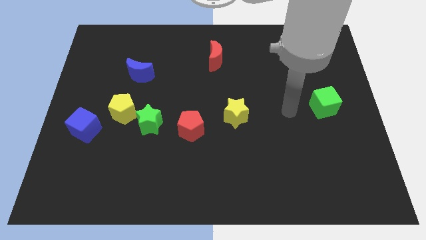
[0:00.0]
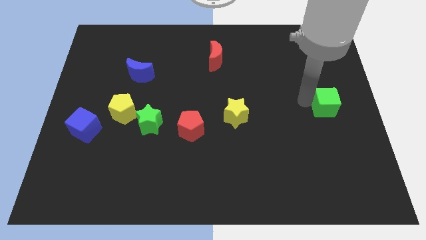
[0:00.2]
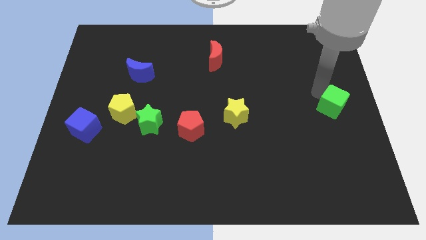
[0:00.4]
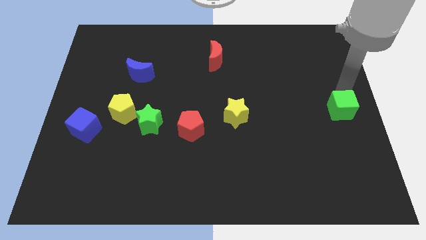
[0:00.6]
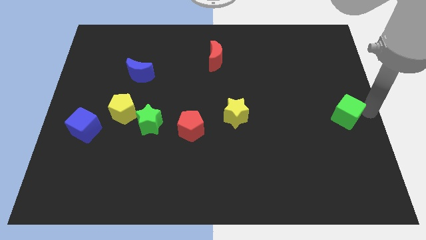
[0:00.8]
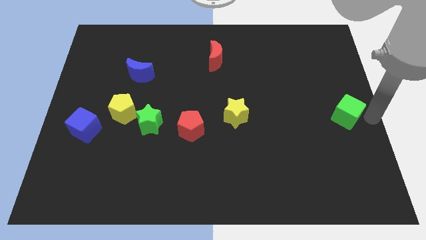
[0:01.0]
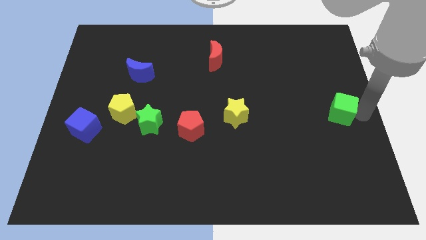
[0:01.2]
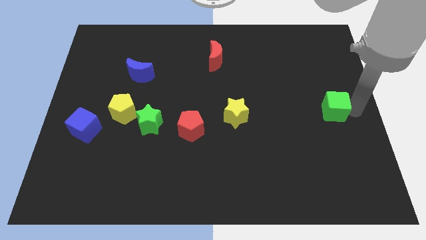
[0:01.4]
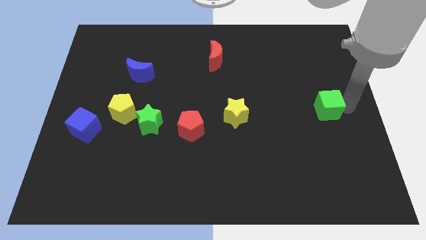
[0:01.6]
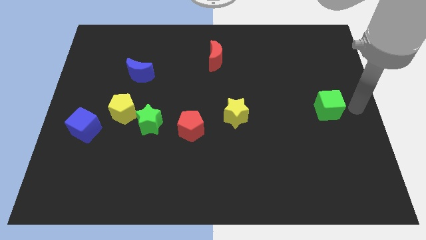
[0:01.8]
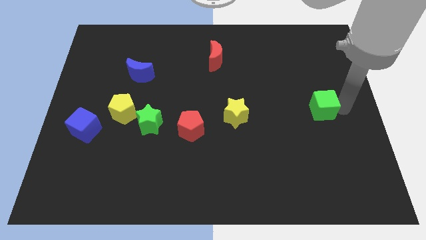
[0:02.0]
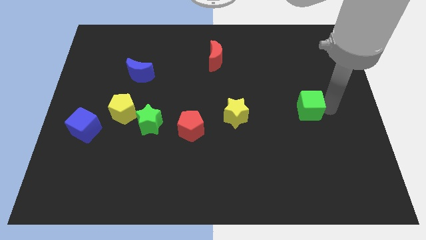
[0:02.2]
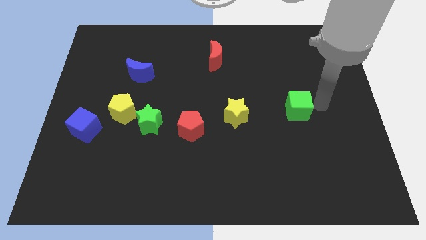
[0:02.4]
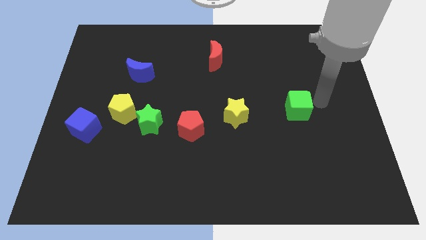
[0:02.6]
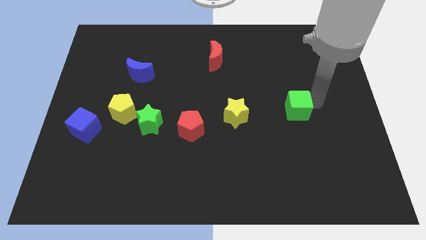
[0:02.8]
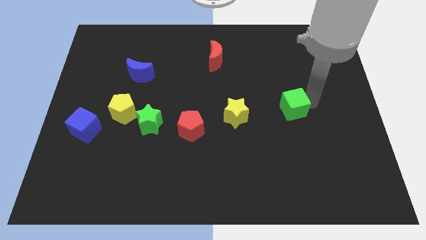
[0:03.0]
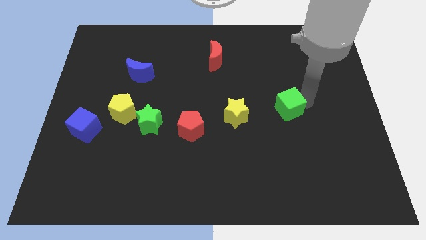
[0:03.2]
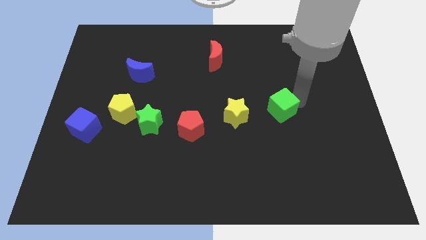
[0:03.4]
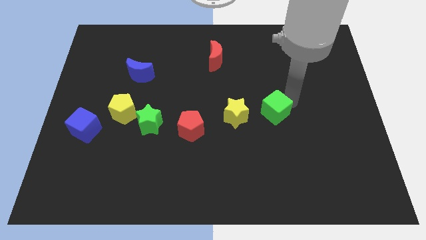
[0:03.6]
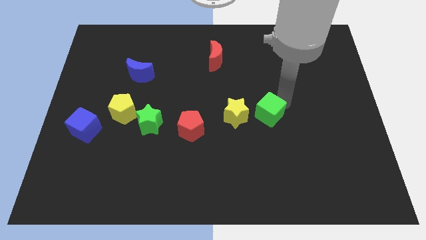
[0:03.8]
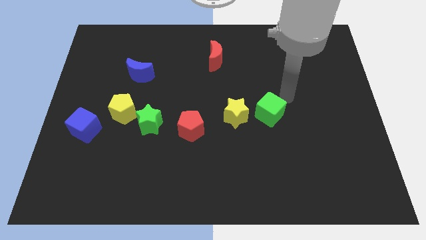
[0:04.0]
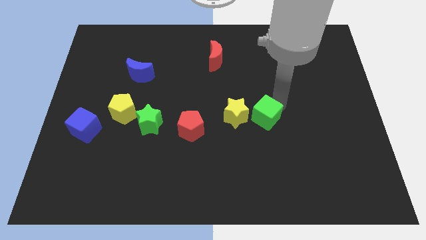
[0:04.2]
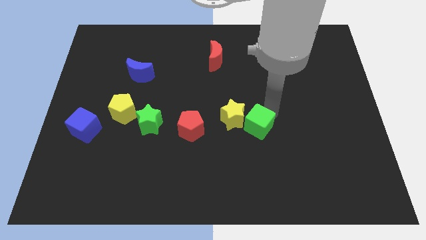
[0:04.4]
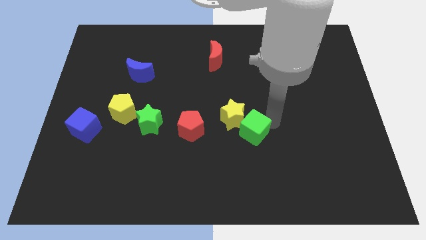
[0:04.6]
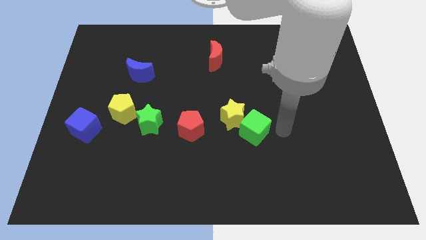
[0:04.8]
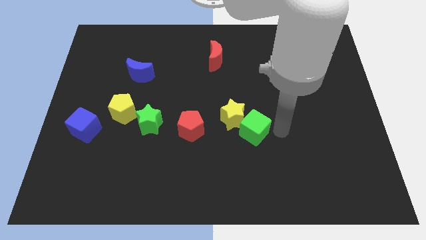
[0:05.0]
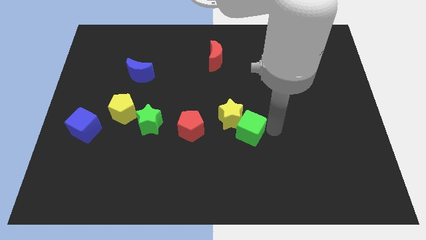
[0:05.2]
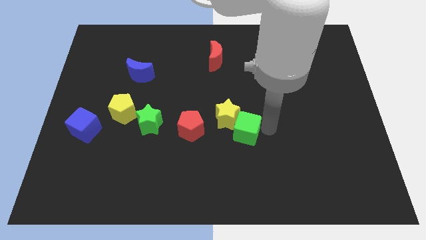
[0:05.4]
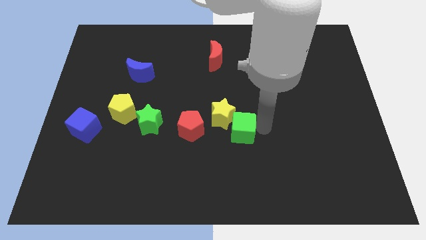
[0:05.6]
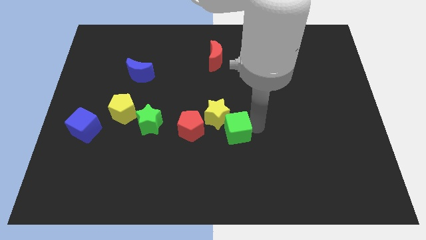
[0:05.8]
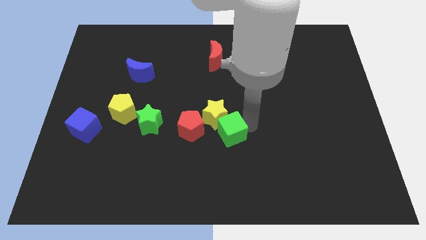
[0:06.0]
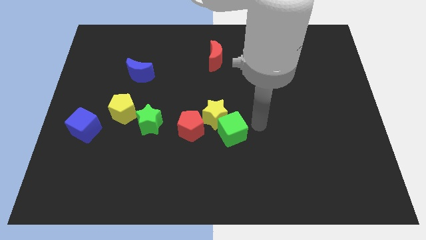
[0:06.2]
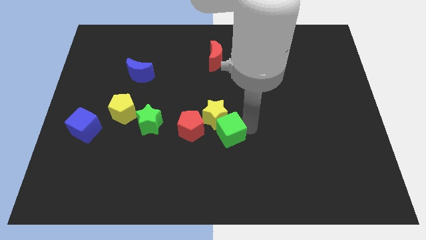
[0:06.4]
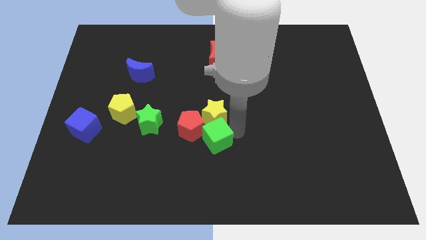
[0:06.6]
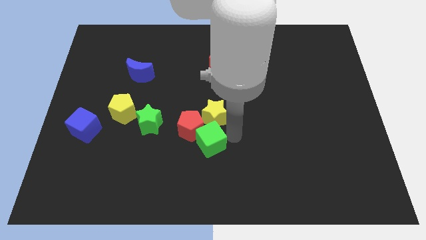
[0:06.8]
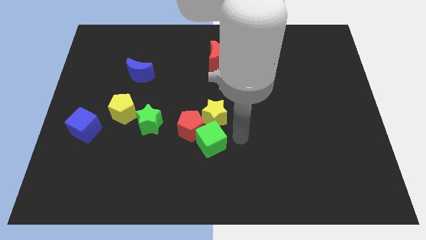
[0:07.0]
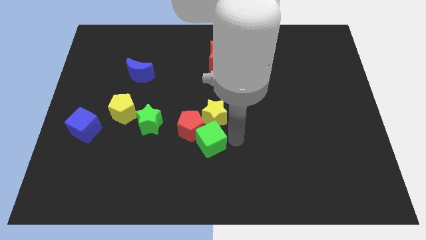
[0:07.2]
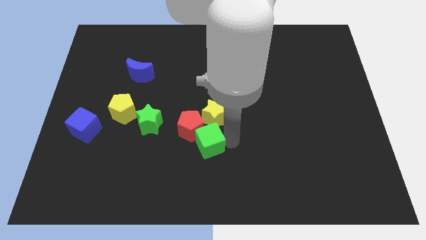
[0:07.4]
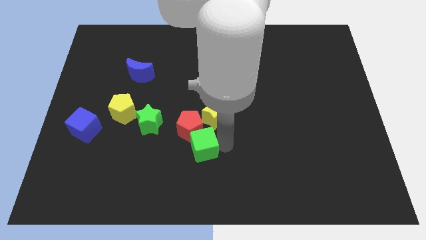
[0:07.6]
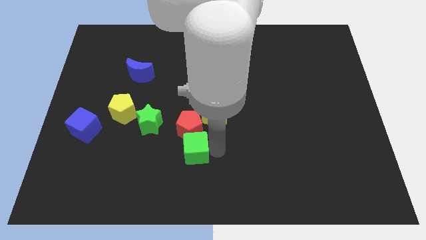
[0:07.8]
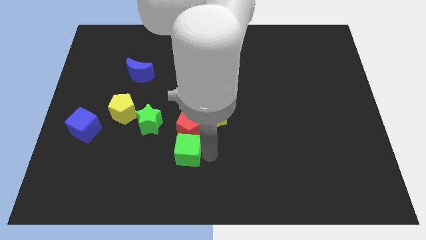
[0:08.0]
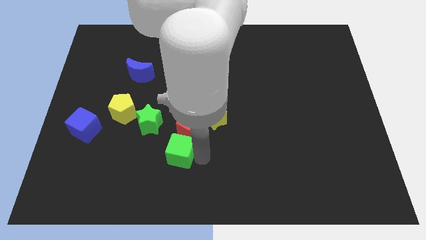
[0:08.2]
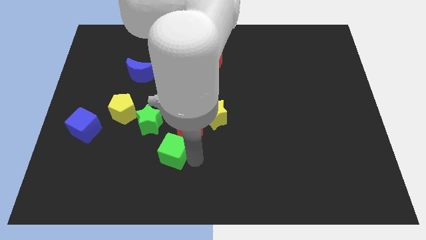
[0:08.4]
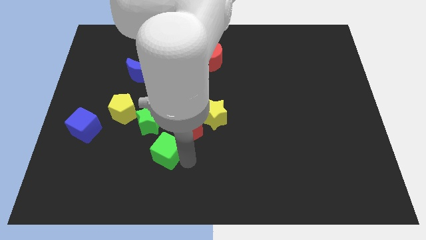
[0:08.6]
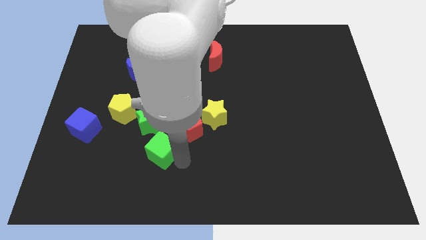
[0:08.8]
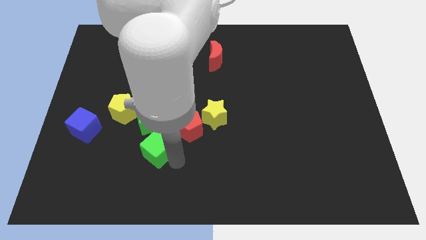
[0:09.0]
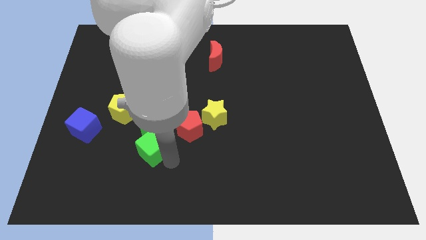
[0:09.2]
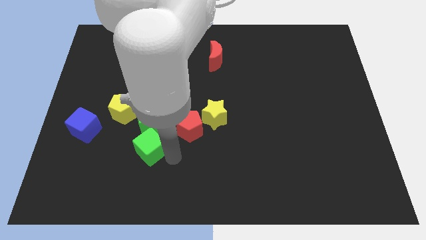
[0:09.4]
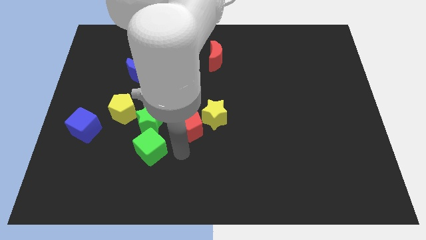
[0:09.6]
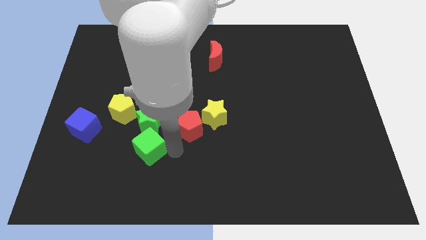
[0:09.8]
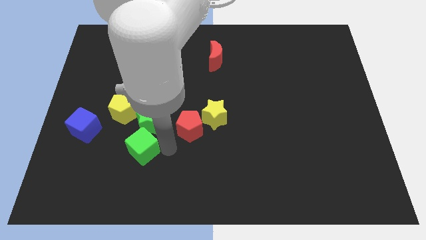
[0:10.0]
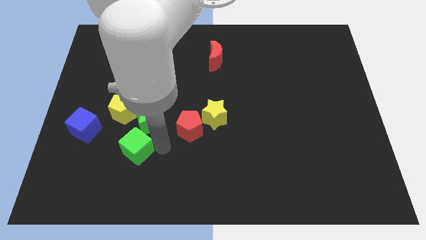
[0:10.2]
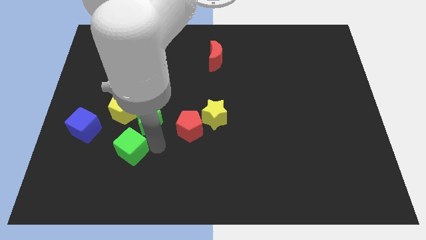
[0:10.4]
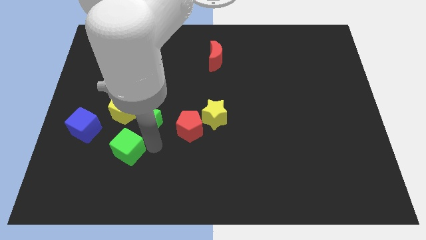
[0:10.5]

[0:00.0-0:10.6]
put the green cube to the bottom right side of the blue cube

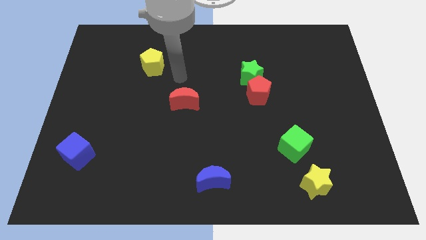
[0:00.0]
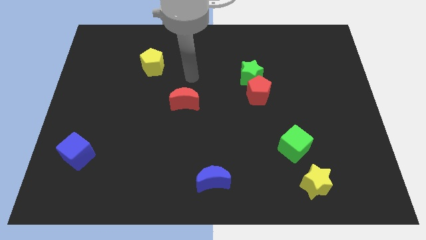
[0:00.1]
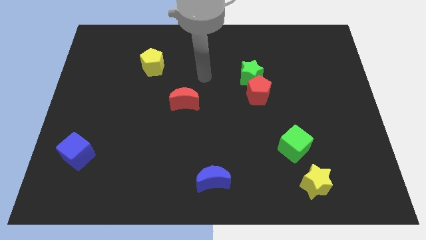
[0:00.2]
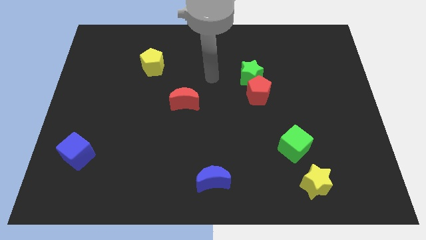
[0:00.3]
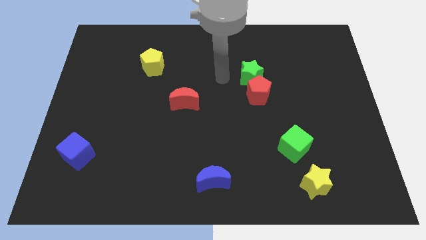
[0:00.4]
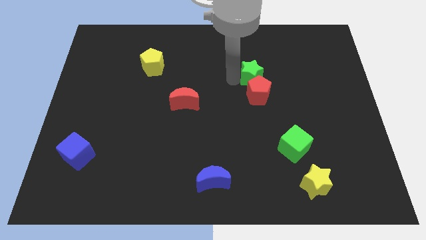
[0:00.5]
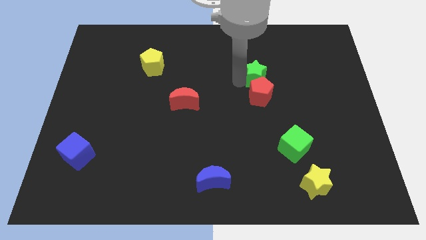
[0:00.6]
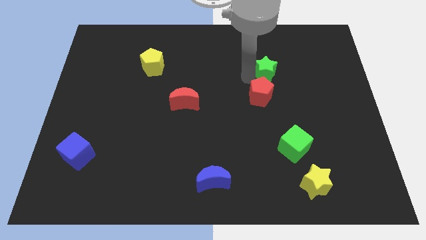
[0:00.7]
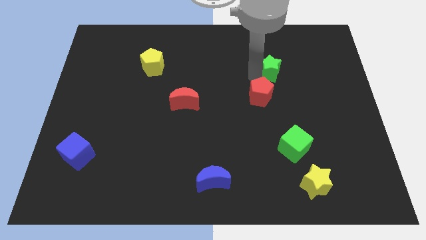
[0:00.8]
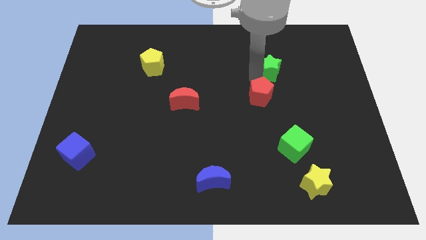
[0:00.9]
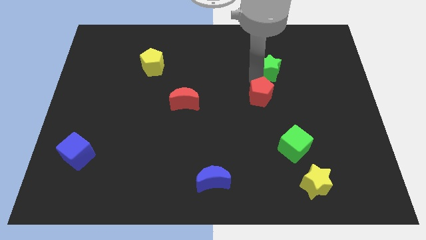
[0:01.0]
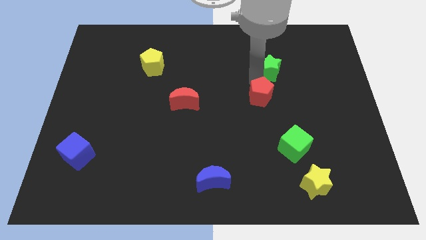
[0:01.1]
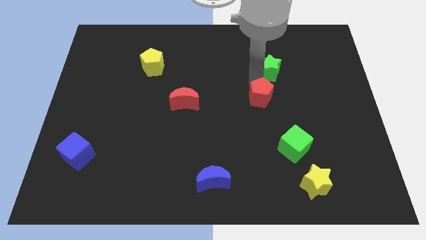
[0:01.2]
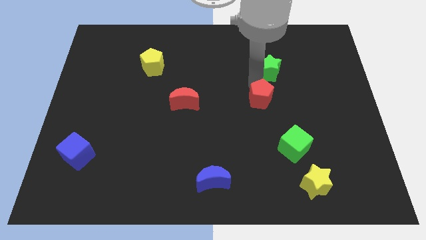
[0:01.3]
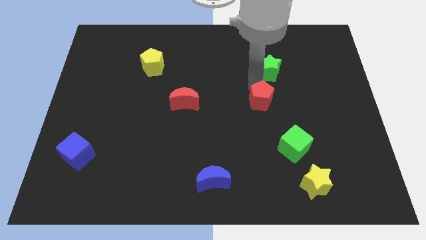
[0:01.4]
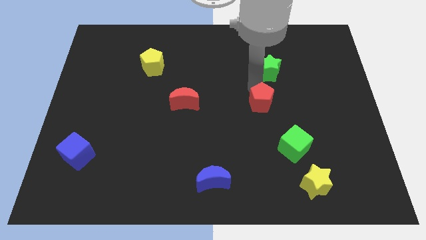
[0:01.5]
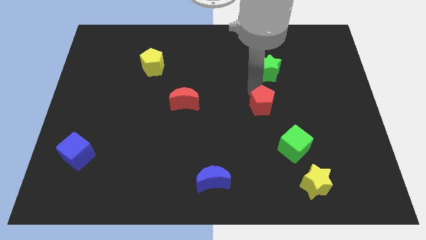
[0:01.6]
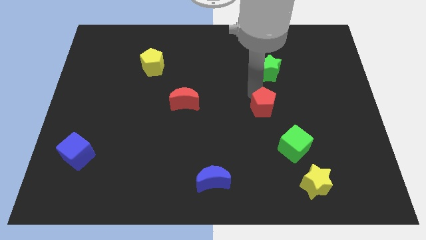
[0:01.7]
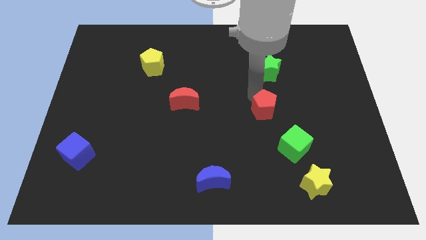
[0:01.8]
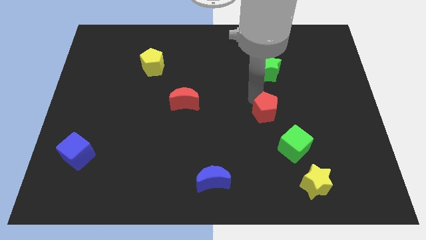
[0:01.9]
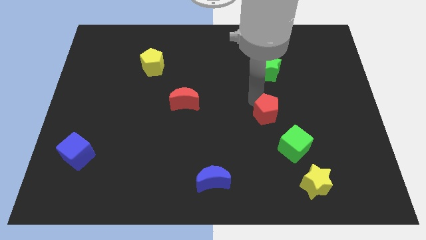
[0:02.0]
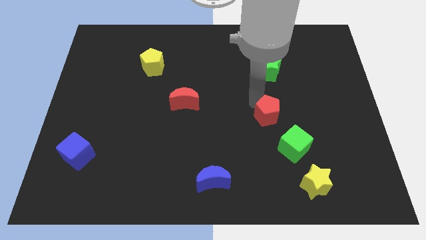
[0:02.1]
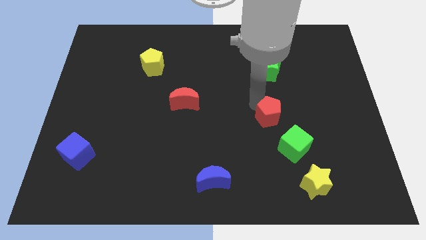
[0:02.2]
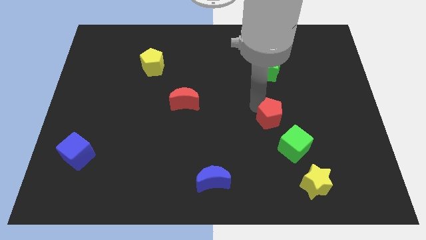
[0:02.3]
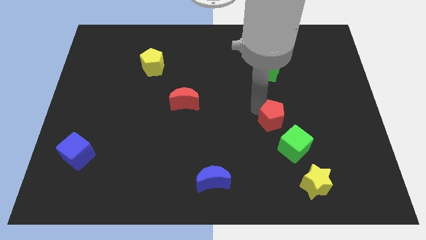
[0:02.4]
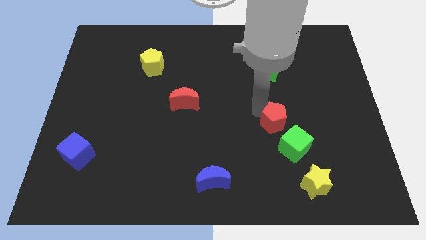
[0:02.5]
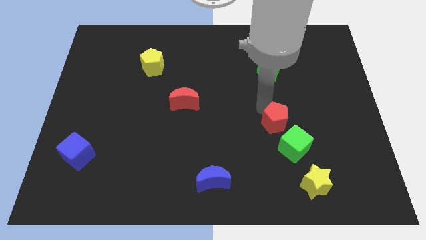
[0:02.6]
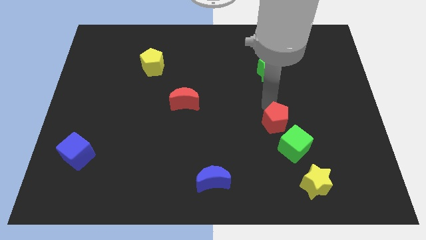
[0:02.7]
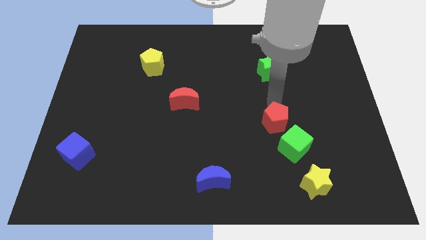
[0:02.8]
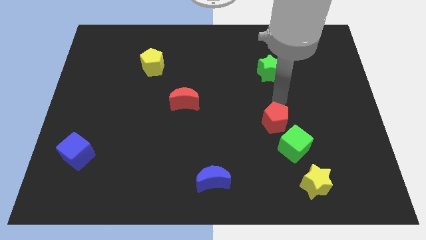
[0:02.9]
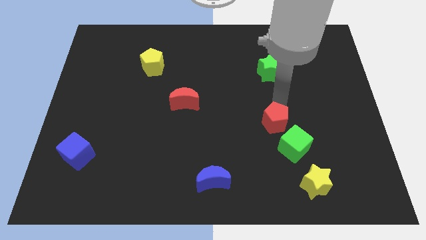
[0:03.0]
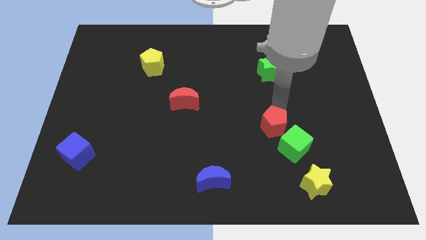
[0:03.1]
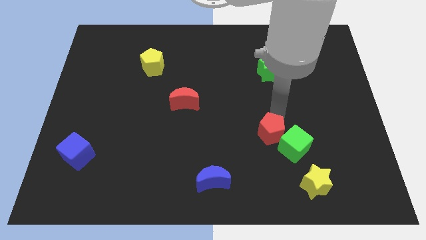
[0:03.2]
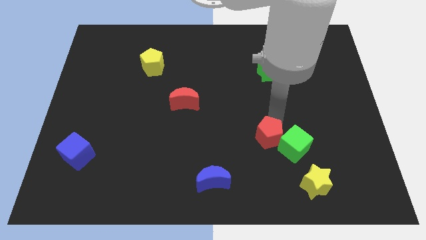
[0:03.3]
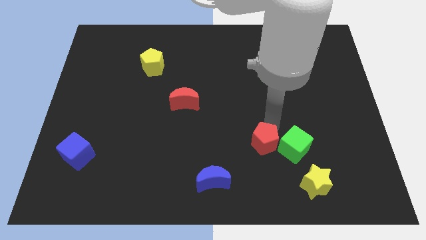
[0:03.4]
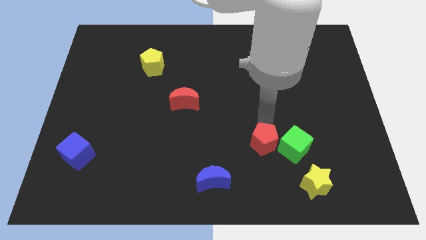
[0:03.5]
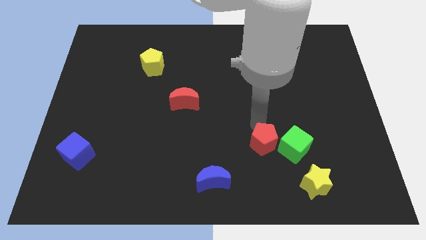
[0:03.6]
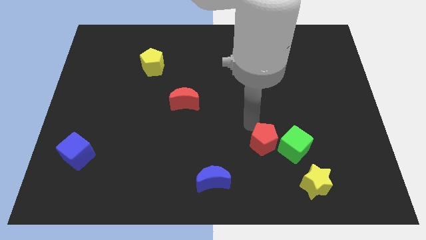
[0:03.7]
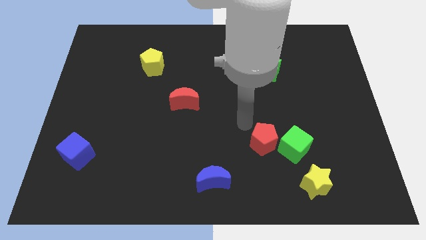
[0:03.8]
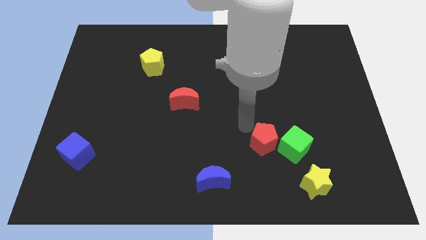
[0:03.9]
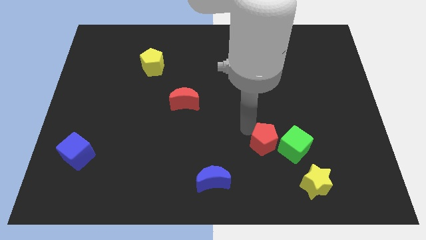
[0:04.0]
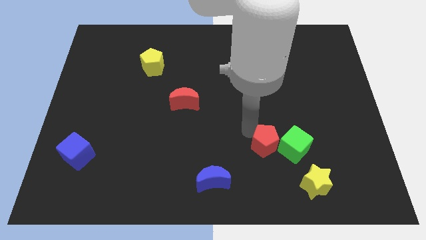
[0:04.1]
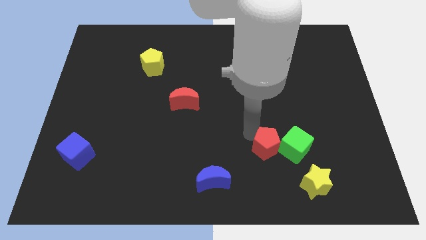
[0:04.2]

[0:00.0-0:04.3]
put the red pentagon diagonally up and to the left of the yellow star
